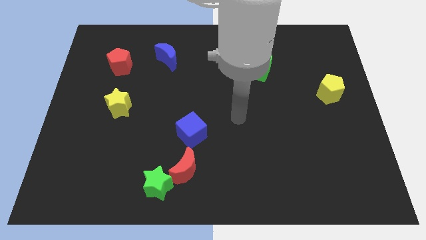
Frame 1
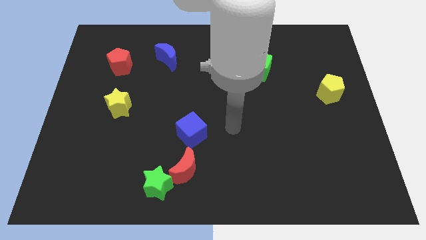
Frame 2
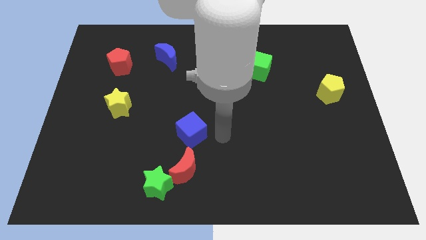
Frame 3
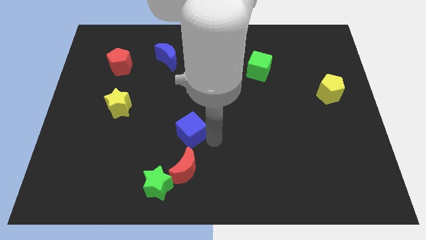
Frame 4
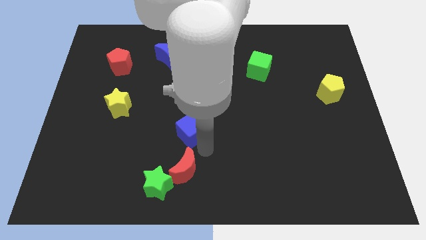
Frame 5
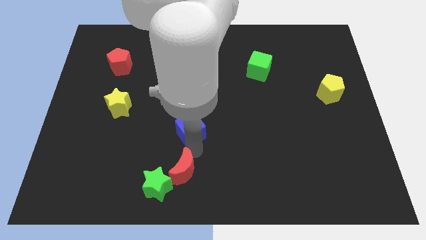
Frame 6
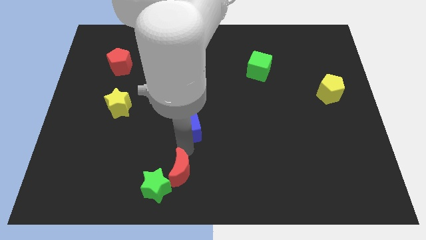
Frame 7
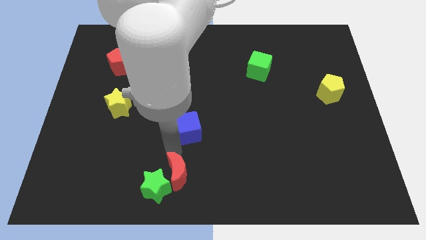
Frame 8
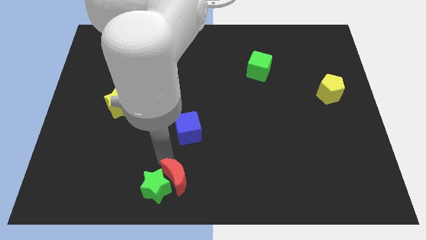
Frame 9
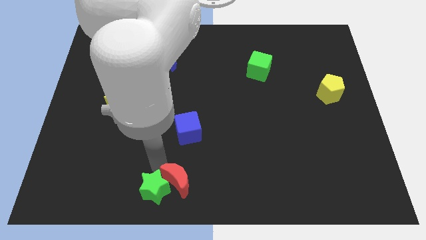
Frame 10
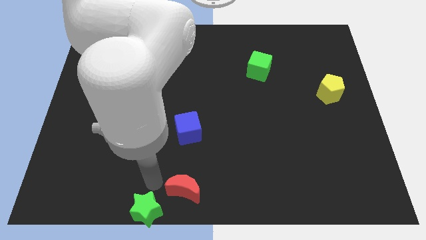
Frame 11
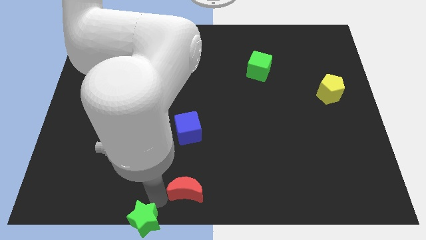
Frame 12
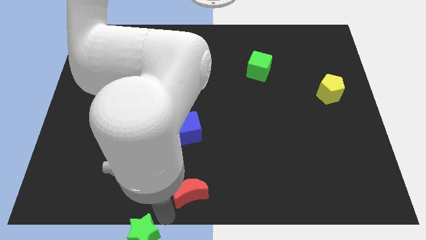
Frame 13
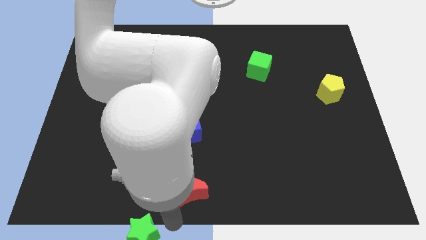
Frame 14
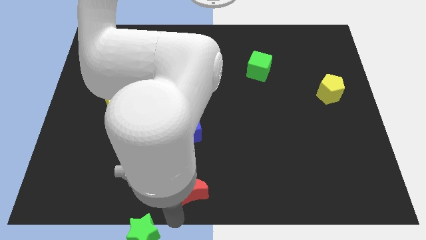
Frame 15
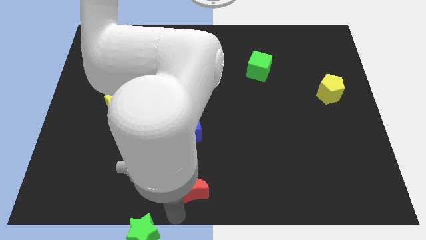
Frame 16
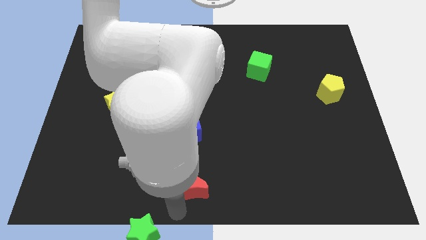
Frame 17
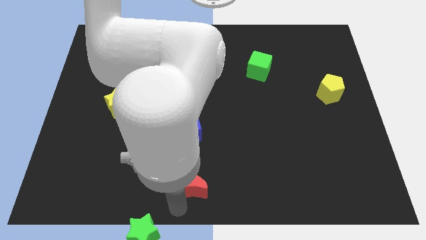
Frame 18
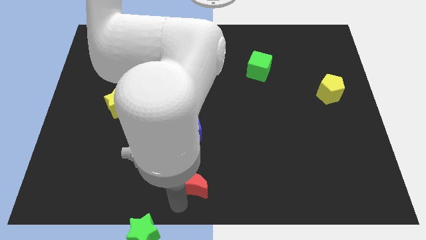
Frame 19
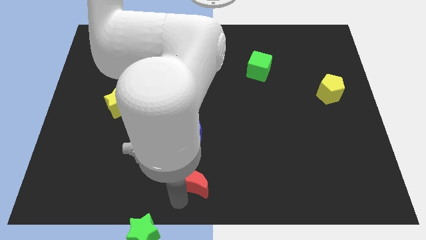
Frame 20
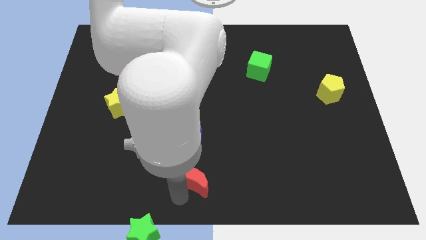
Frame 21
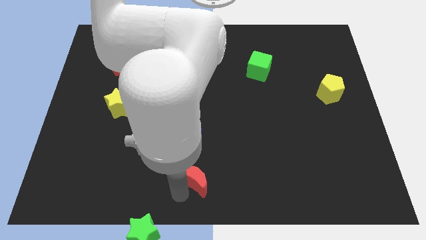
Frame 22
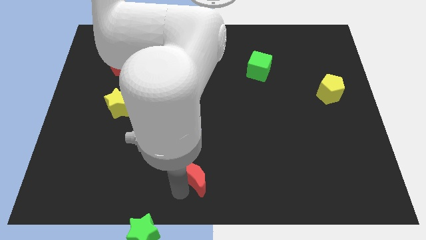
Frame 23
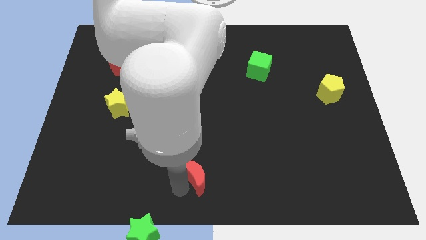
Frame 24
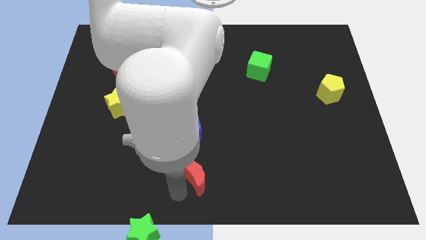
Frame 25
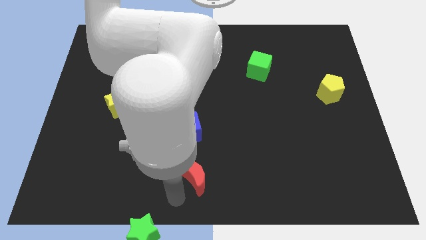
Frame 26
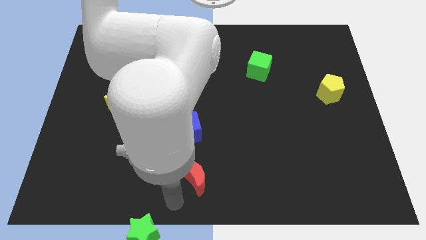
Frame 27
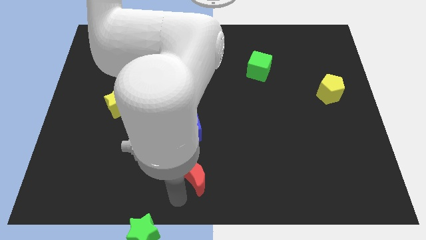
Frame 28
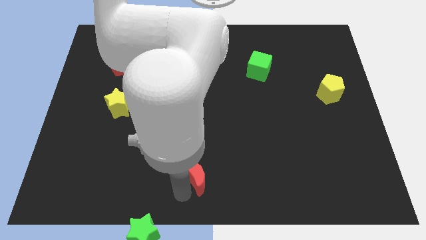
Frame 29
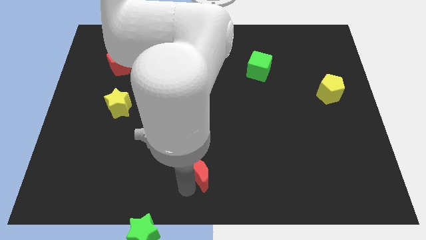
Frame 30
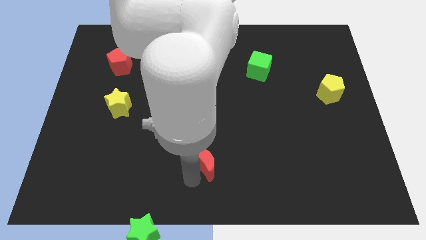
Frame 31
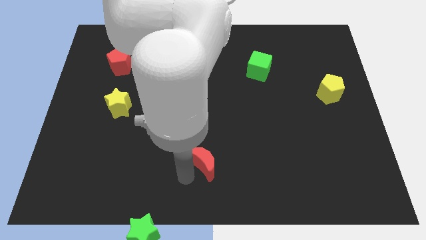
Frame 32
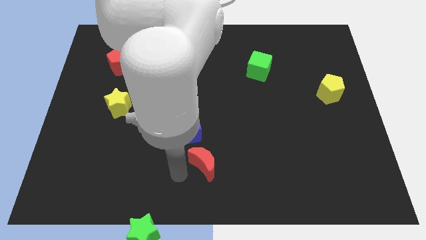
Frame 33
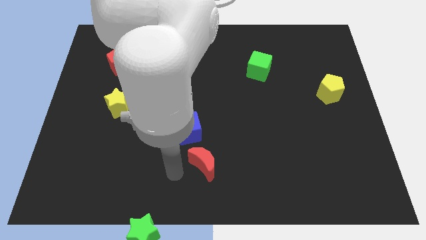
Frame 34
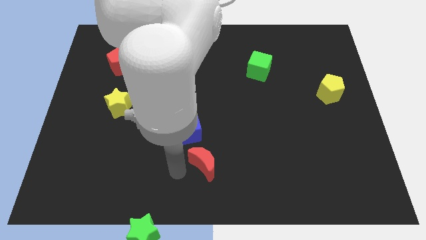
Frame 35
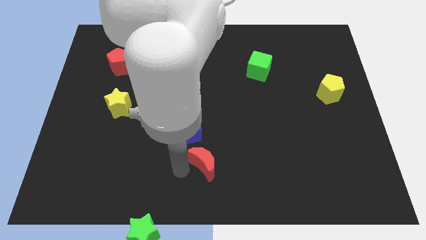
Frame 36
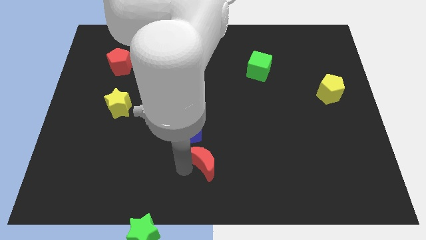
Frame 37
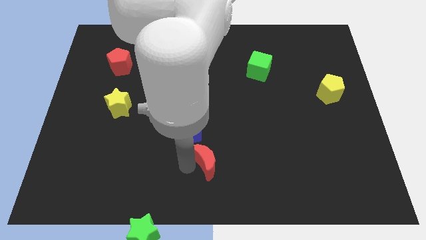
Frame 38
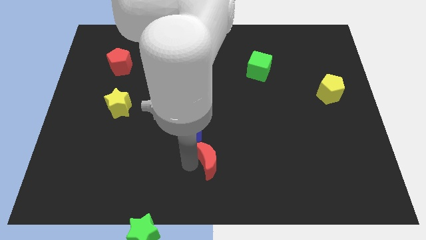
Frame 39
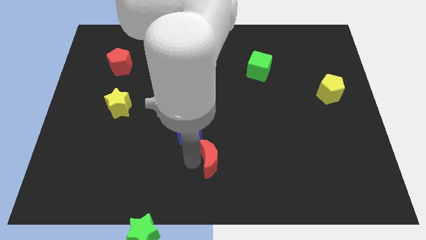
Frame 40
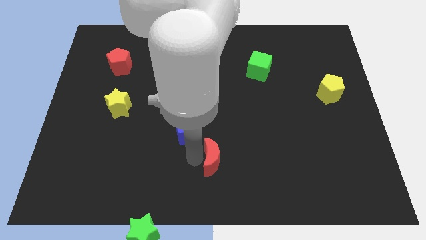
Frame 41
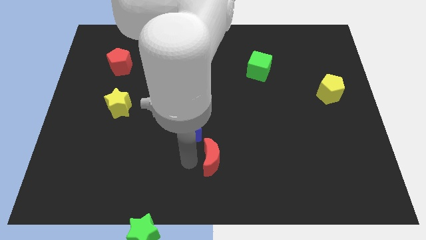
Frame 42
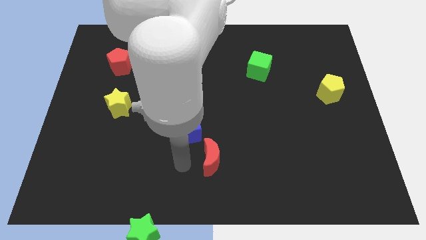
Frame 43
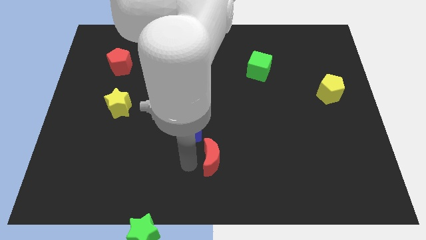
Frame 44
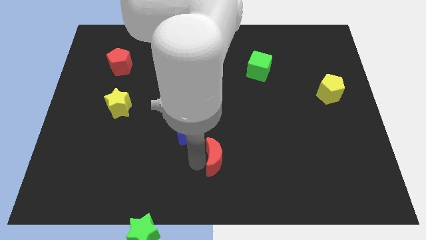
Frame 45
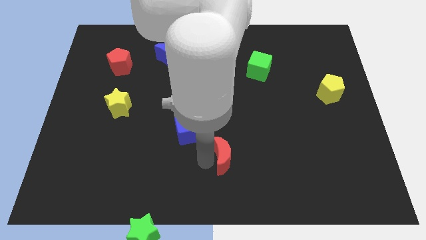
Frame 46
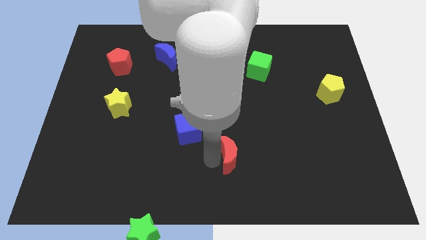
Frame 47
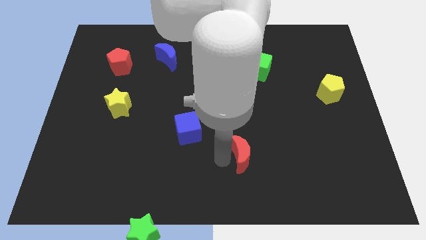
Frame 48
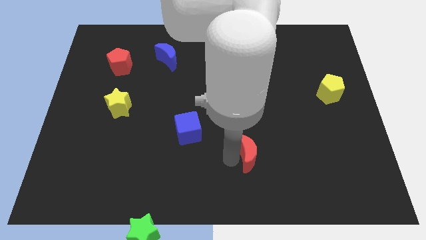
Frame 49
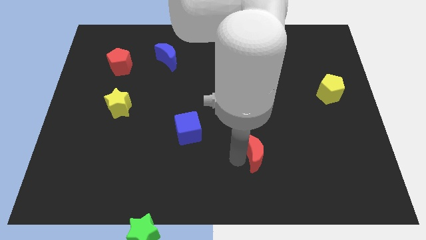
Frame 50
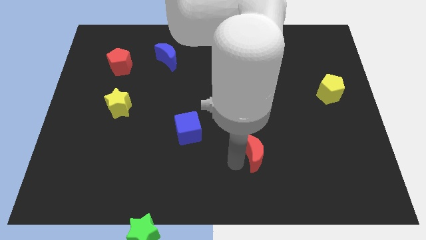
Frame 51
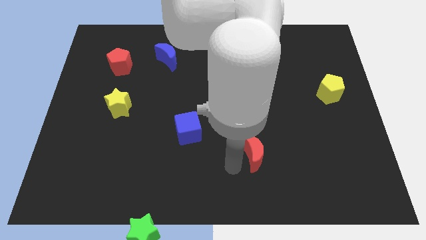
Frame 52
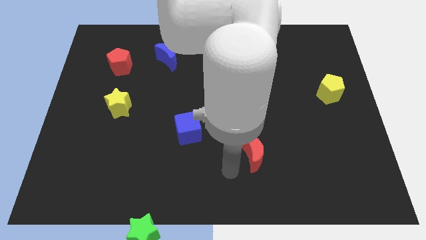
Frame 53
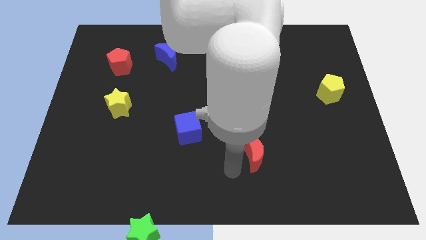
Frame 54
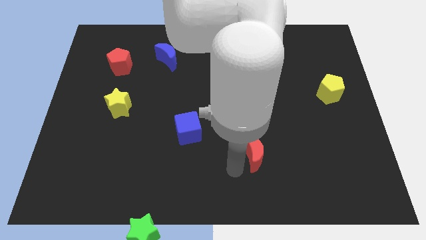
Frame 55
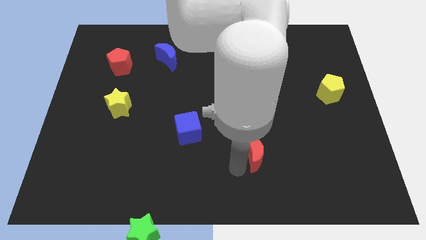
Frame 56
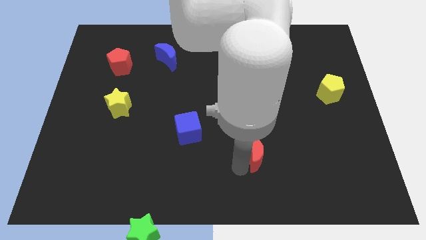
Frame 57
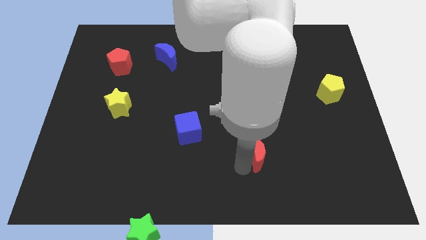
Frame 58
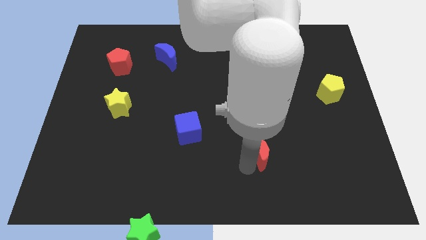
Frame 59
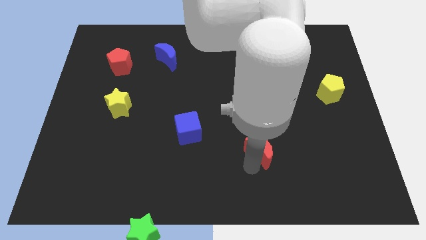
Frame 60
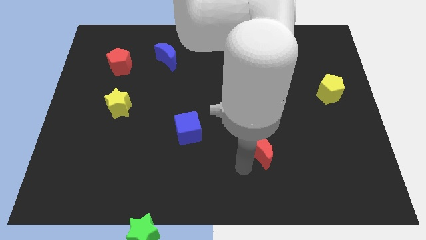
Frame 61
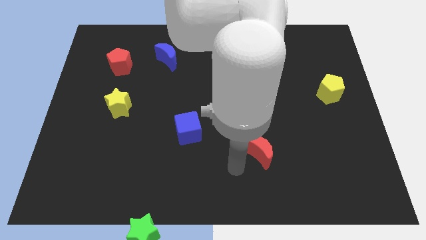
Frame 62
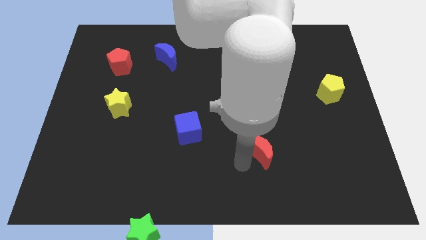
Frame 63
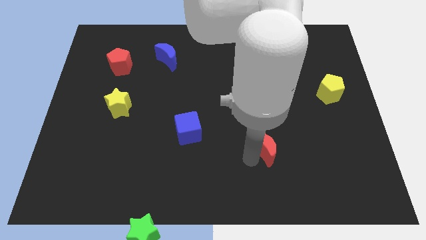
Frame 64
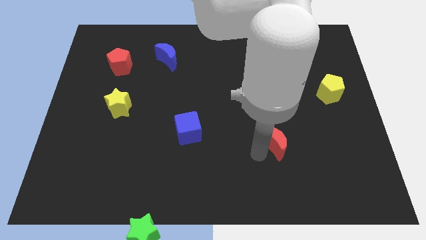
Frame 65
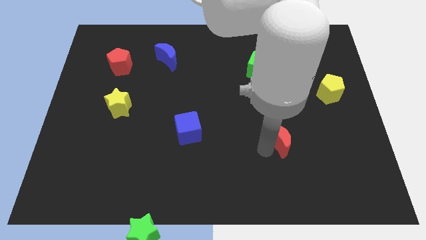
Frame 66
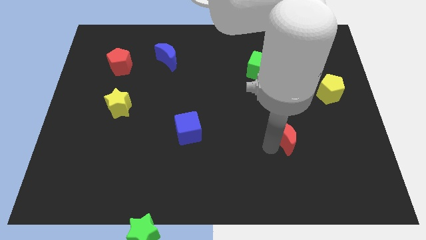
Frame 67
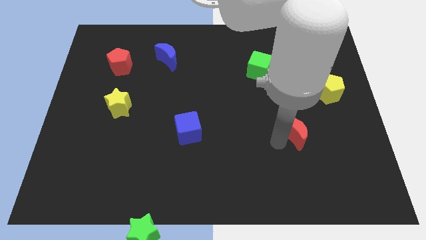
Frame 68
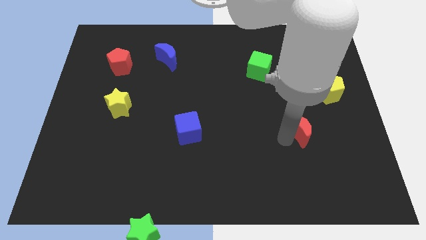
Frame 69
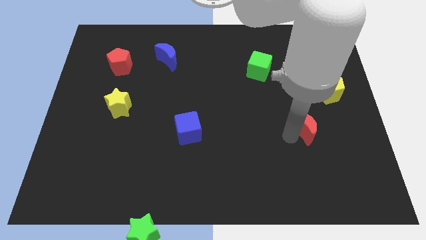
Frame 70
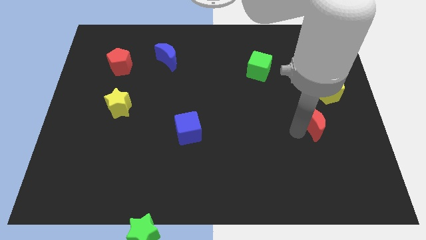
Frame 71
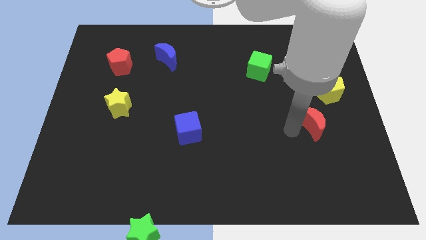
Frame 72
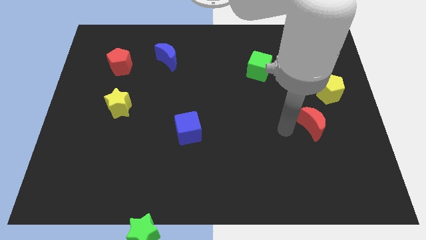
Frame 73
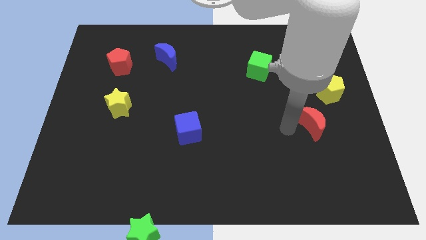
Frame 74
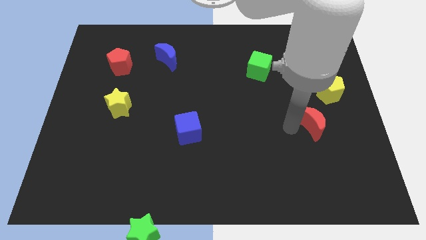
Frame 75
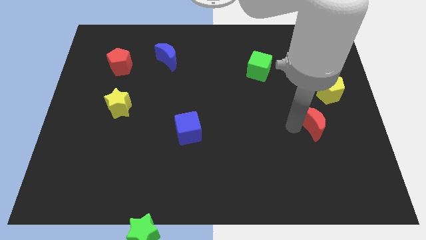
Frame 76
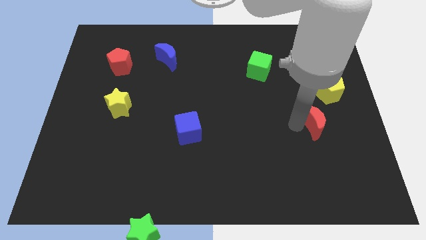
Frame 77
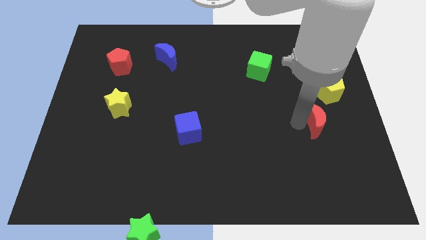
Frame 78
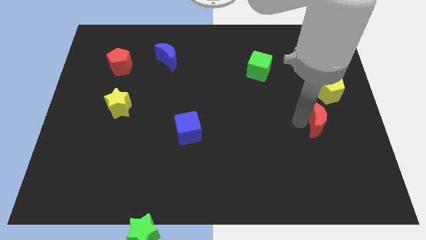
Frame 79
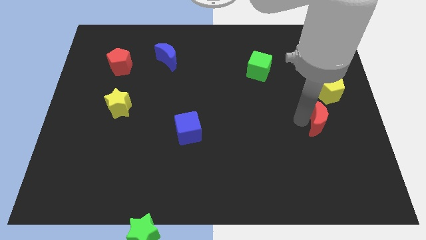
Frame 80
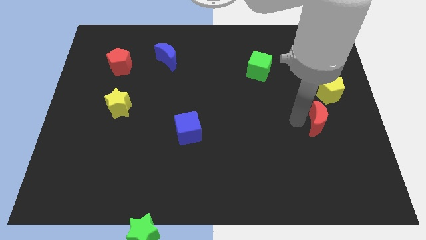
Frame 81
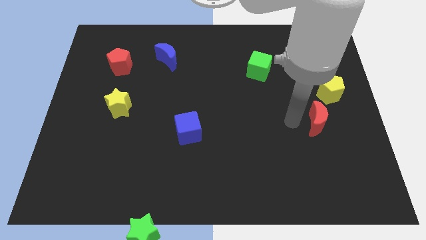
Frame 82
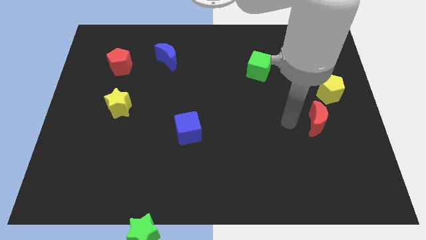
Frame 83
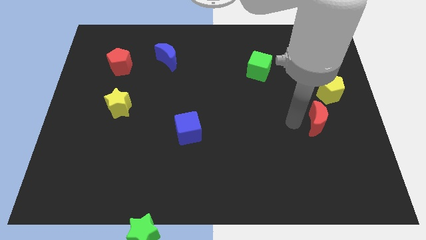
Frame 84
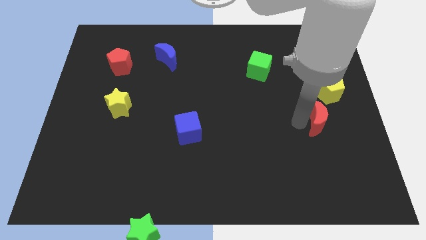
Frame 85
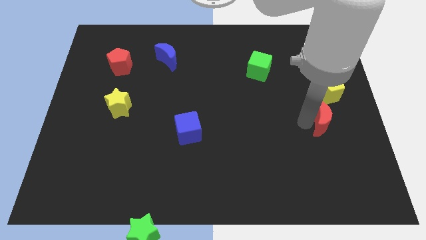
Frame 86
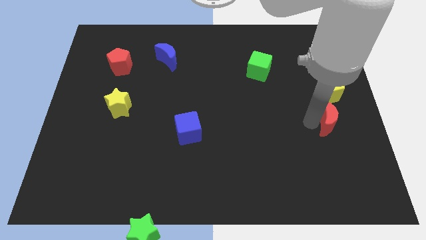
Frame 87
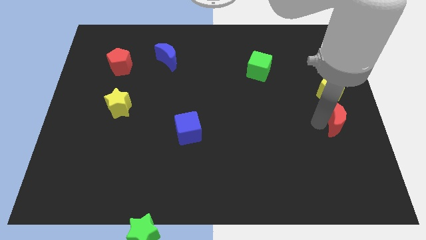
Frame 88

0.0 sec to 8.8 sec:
push the red moon to the right side
